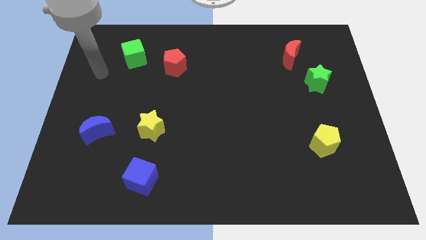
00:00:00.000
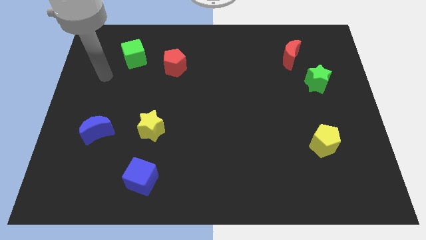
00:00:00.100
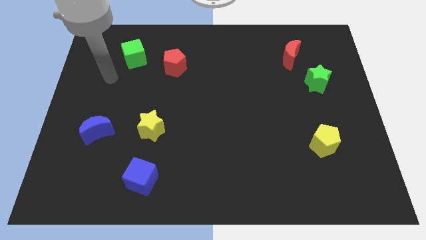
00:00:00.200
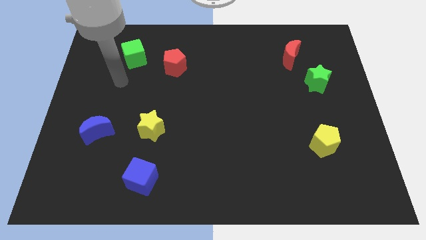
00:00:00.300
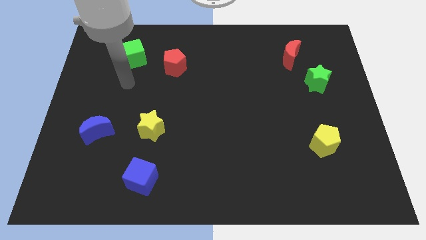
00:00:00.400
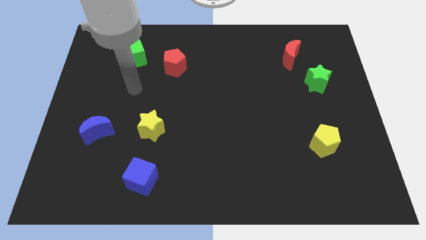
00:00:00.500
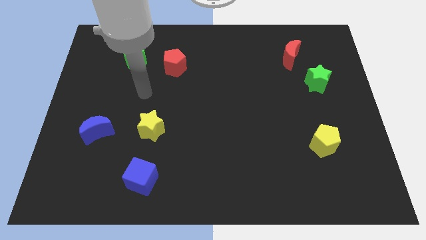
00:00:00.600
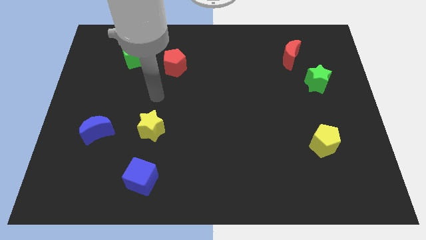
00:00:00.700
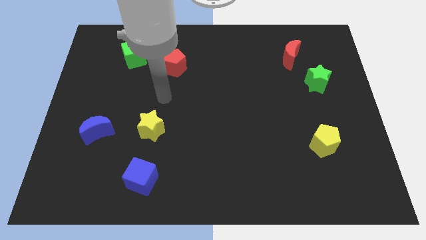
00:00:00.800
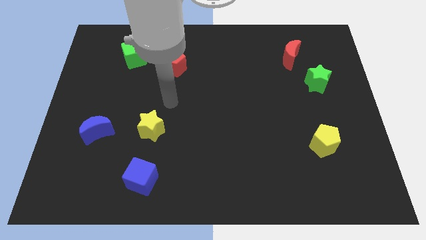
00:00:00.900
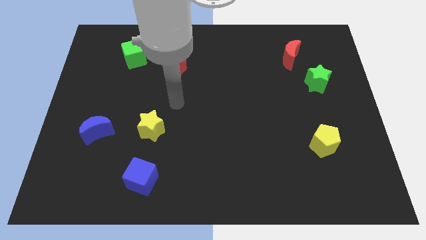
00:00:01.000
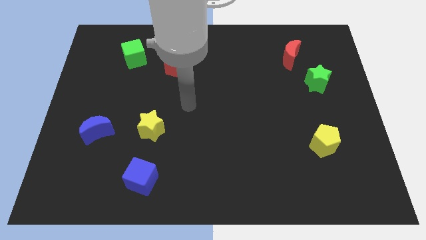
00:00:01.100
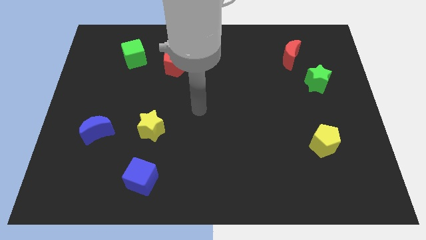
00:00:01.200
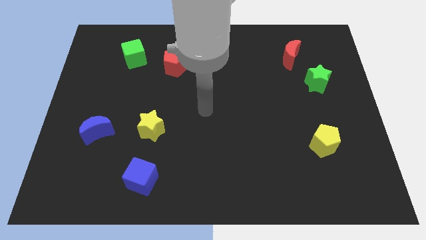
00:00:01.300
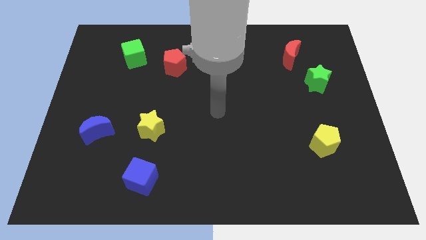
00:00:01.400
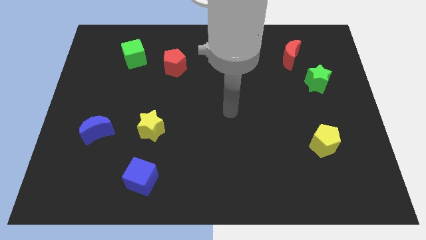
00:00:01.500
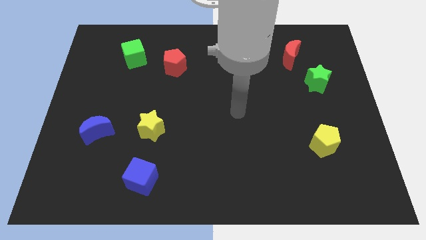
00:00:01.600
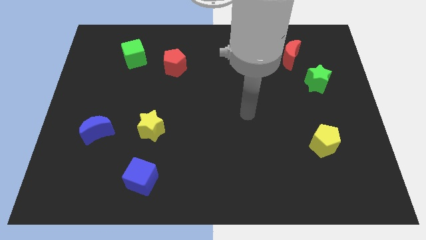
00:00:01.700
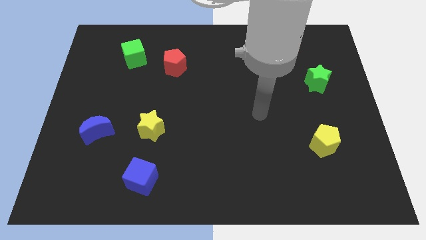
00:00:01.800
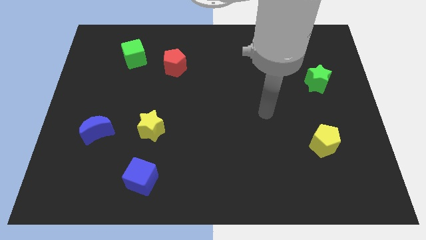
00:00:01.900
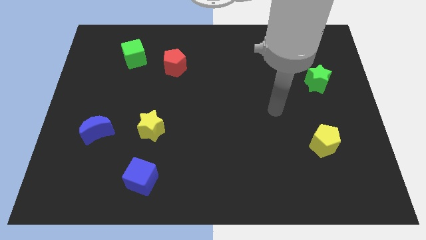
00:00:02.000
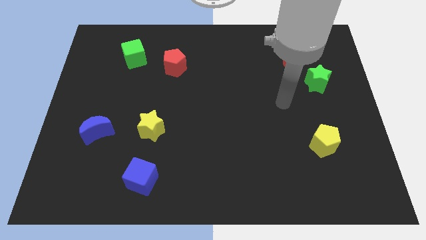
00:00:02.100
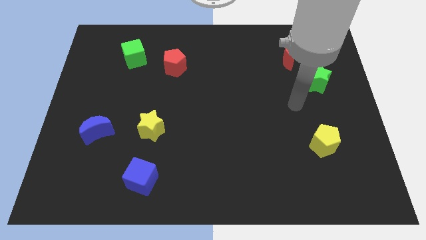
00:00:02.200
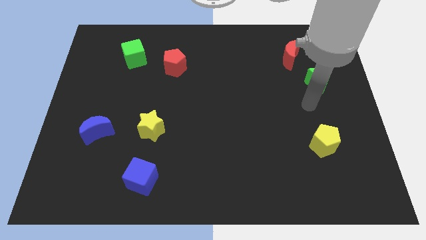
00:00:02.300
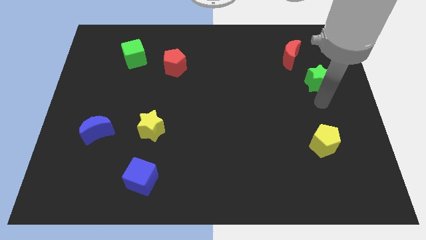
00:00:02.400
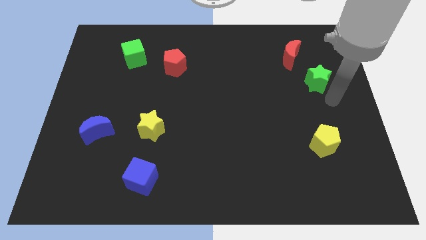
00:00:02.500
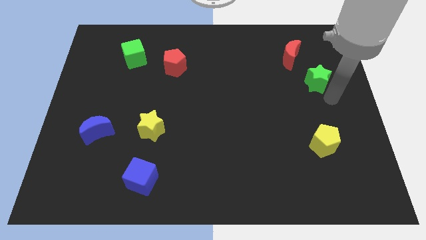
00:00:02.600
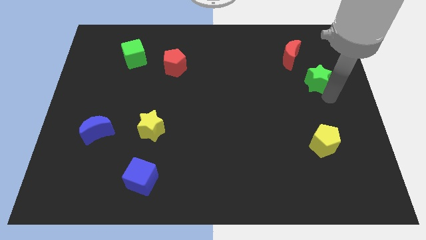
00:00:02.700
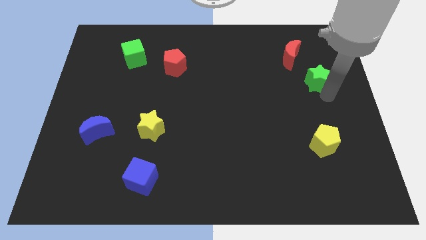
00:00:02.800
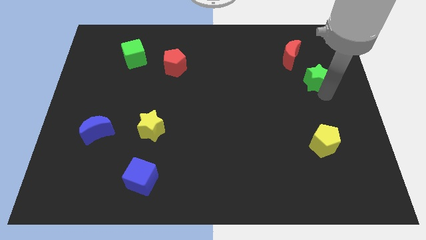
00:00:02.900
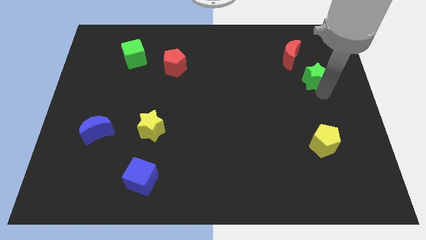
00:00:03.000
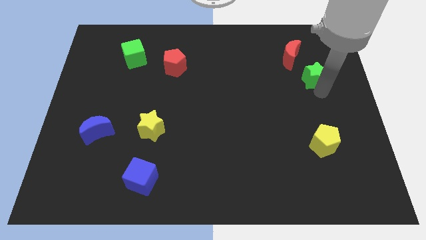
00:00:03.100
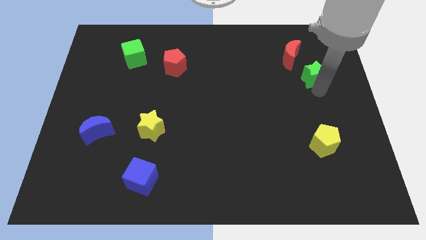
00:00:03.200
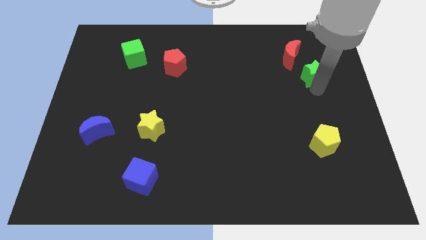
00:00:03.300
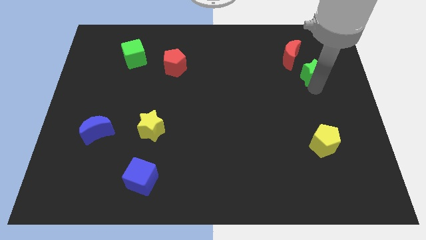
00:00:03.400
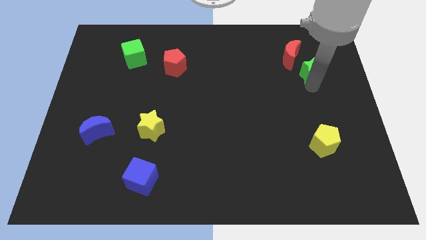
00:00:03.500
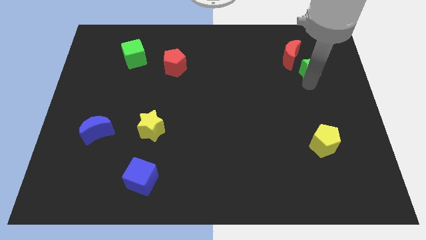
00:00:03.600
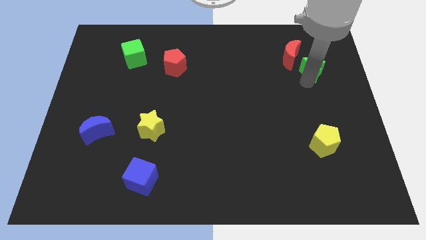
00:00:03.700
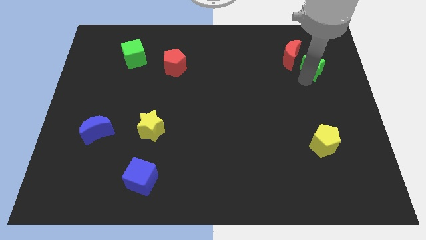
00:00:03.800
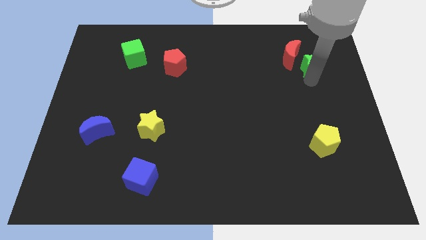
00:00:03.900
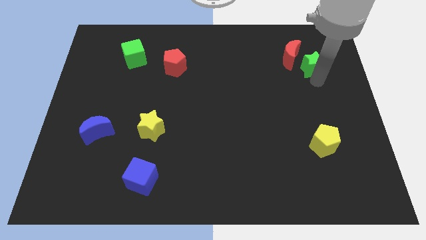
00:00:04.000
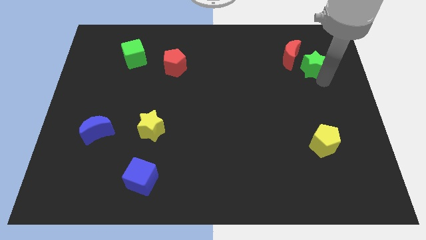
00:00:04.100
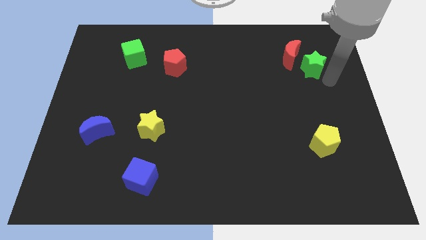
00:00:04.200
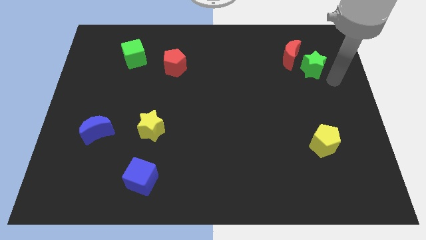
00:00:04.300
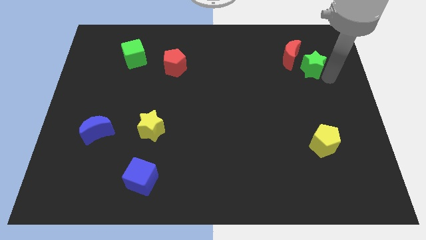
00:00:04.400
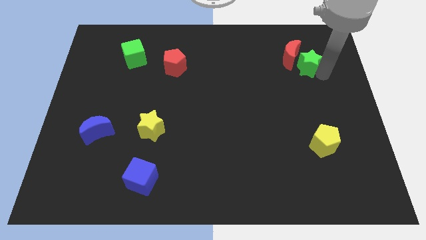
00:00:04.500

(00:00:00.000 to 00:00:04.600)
push the green star to the red moon

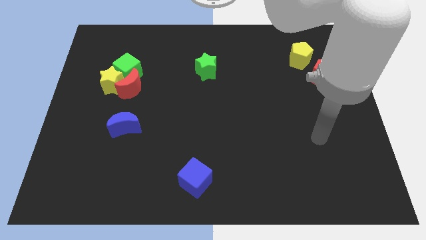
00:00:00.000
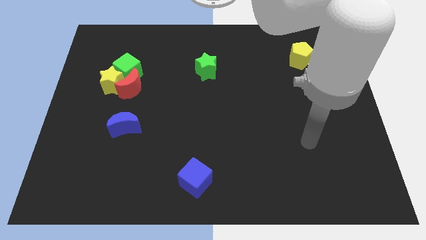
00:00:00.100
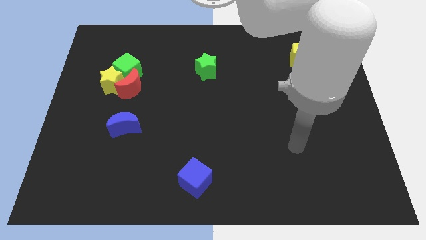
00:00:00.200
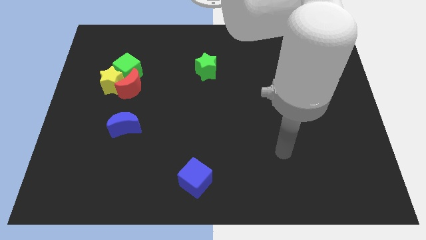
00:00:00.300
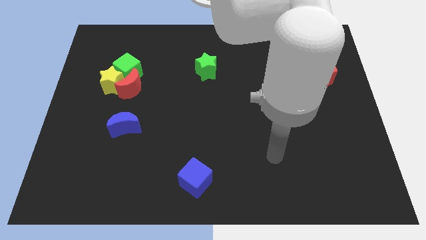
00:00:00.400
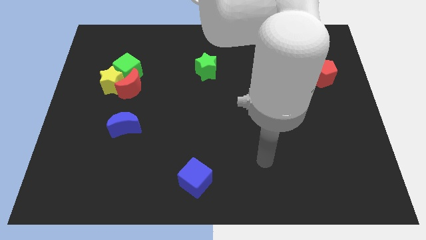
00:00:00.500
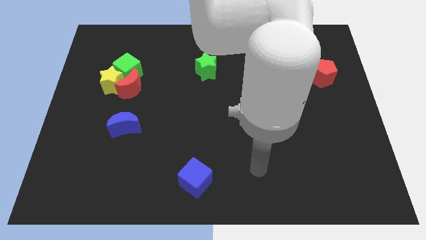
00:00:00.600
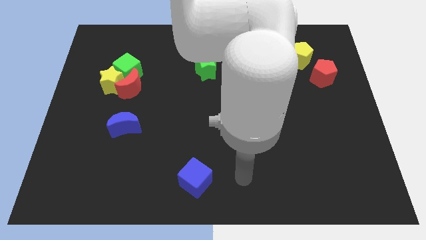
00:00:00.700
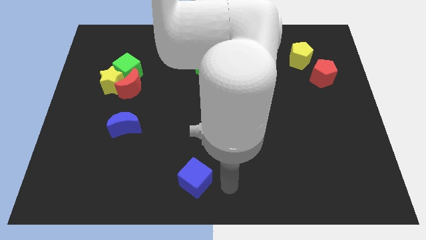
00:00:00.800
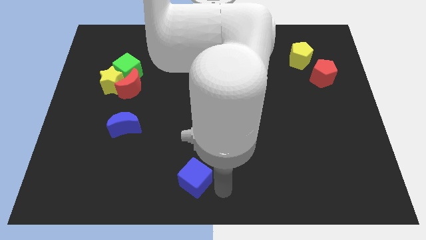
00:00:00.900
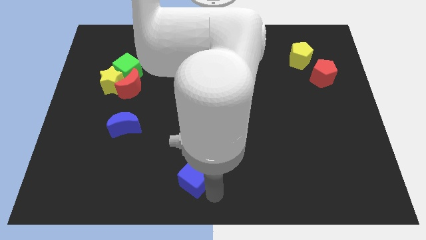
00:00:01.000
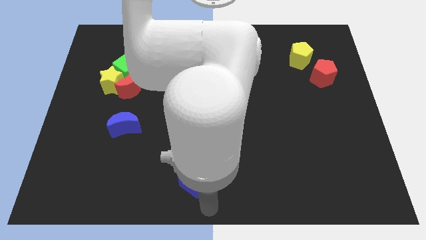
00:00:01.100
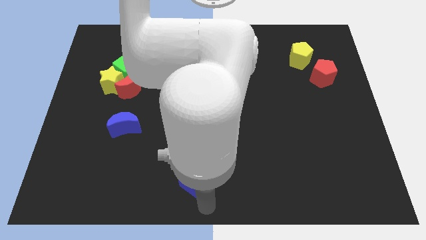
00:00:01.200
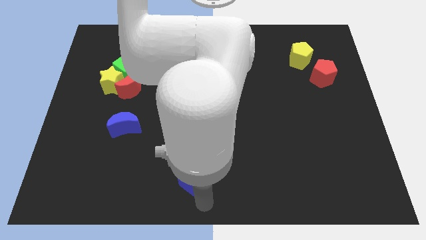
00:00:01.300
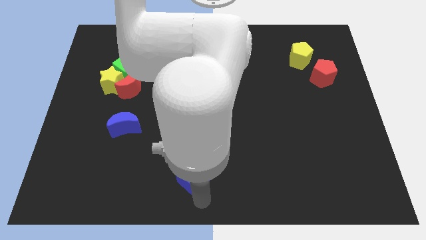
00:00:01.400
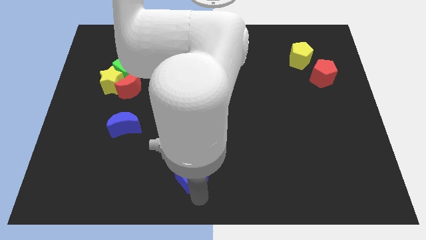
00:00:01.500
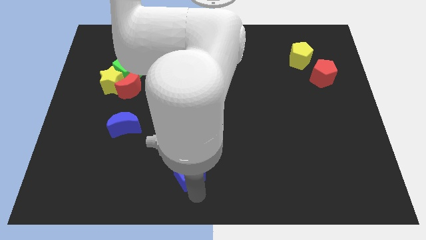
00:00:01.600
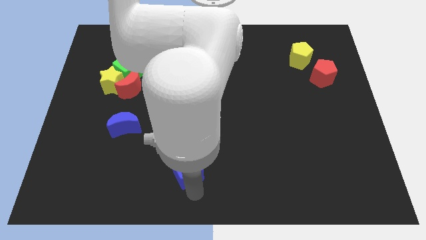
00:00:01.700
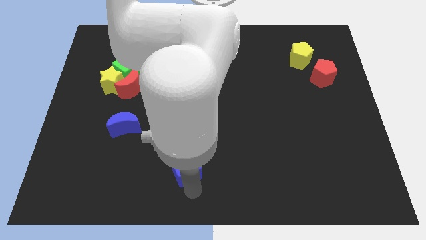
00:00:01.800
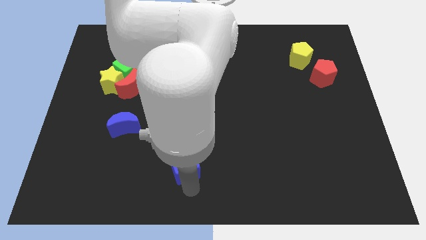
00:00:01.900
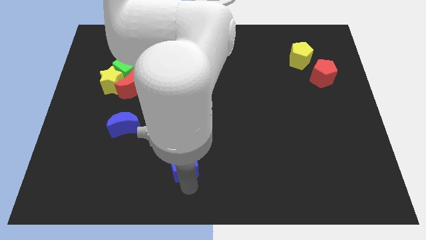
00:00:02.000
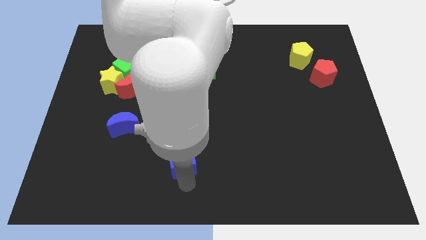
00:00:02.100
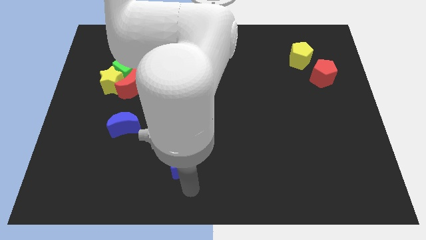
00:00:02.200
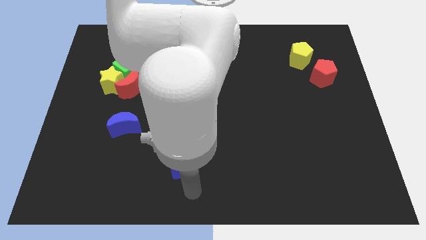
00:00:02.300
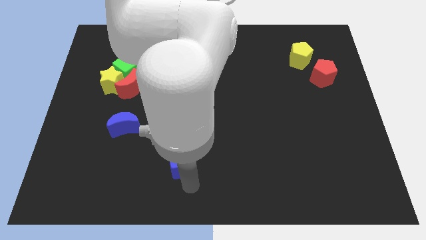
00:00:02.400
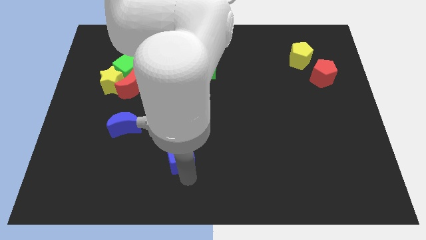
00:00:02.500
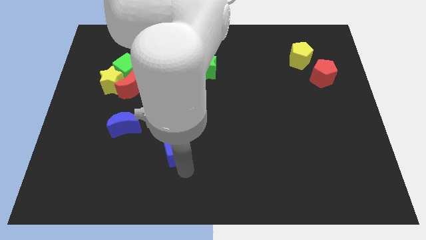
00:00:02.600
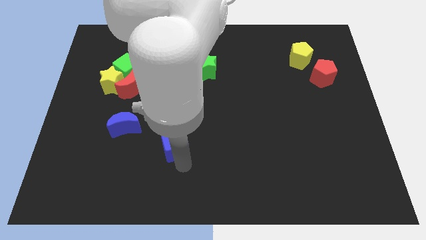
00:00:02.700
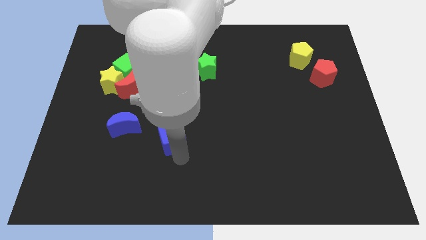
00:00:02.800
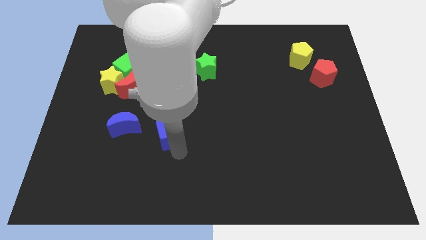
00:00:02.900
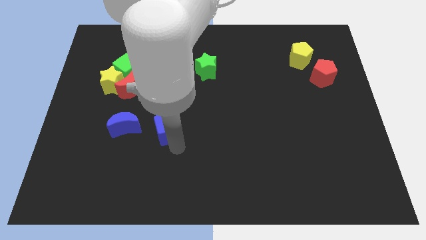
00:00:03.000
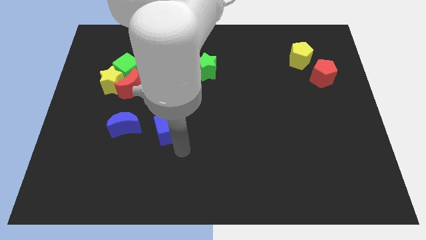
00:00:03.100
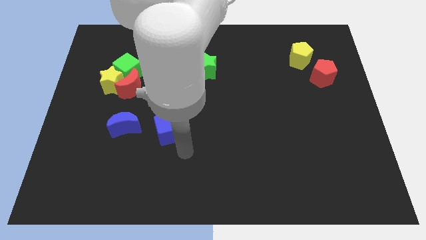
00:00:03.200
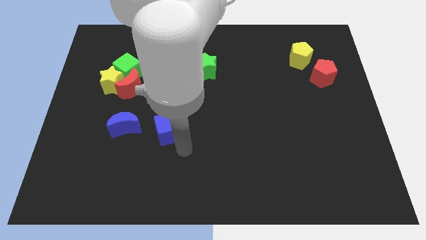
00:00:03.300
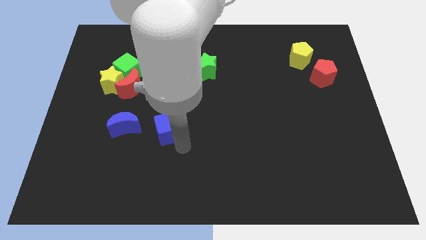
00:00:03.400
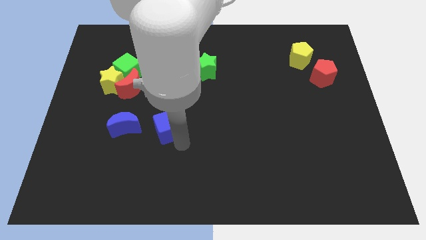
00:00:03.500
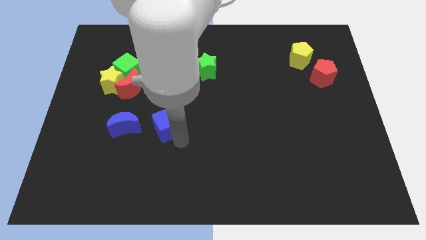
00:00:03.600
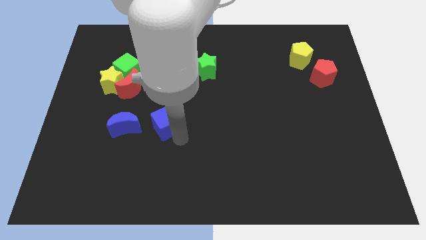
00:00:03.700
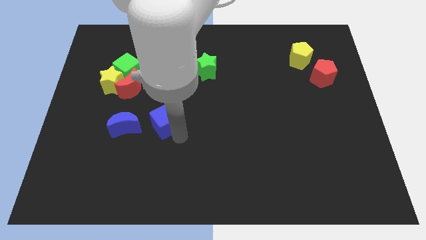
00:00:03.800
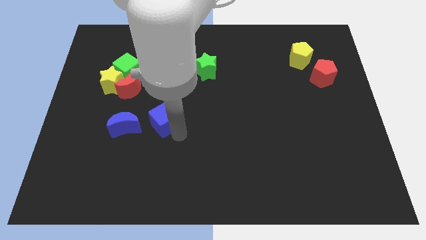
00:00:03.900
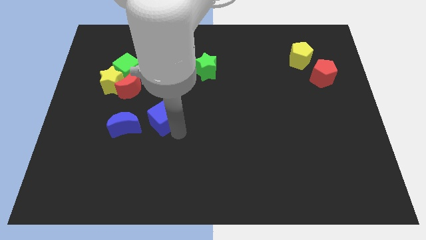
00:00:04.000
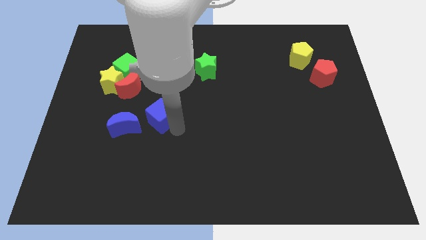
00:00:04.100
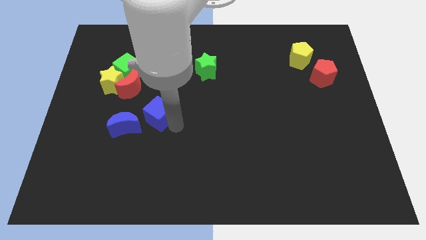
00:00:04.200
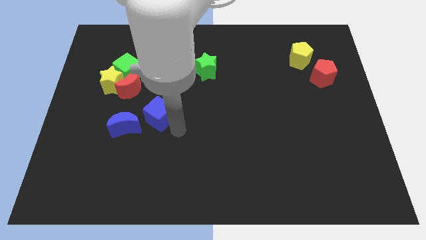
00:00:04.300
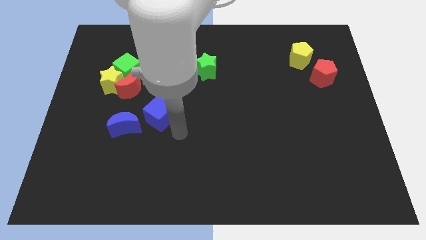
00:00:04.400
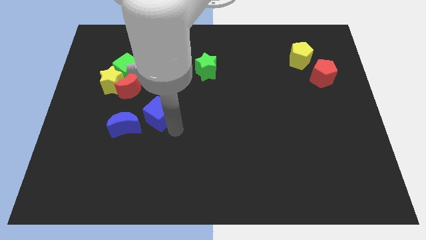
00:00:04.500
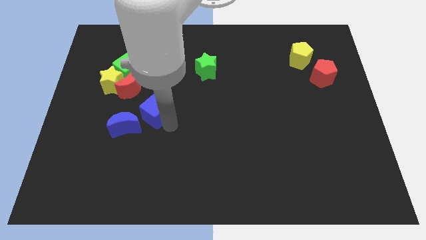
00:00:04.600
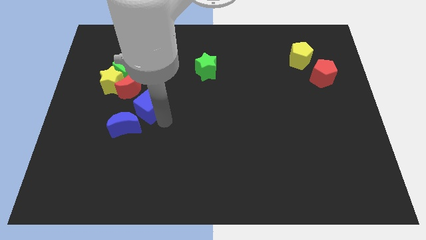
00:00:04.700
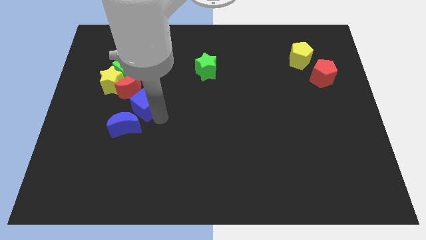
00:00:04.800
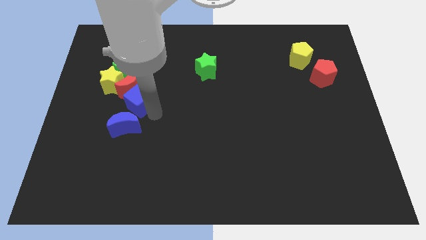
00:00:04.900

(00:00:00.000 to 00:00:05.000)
push the blue cube towards the red moon
